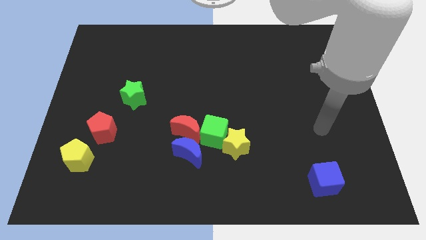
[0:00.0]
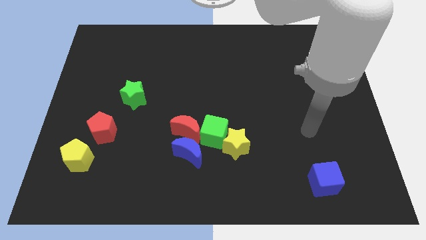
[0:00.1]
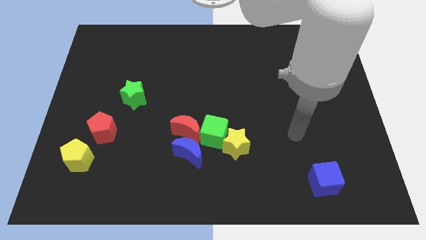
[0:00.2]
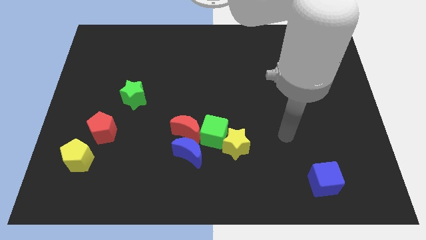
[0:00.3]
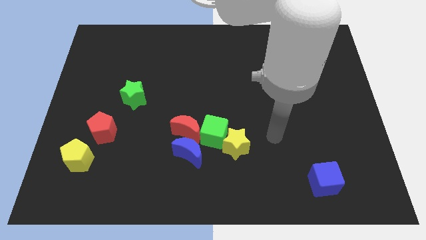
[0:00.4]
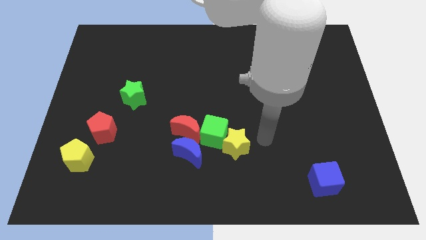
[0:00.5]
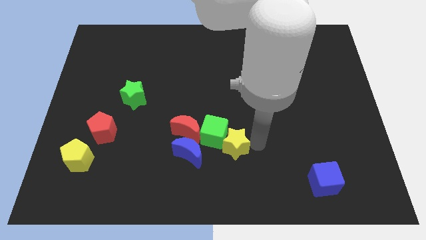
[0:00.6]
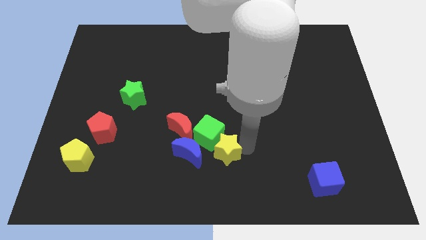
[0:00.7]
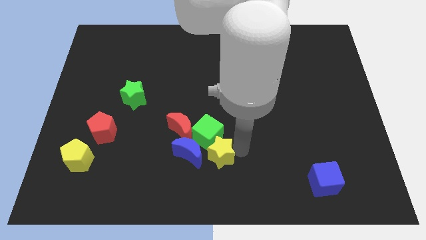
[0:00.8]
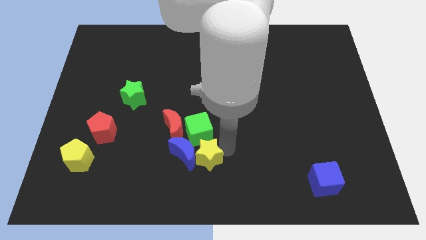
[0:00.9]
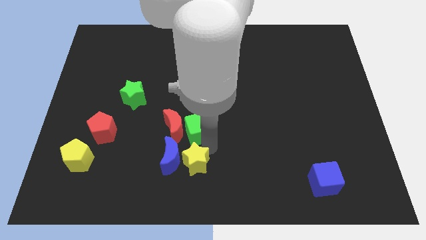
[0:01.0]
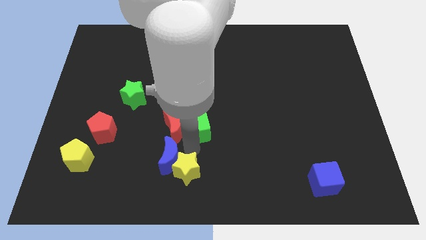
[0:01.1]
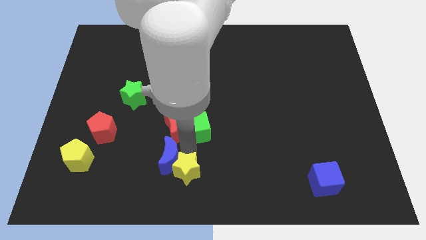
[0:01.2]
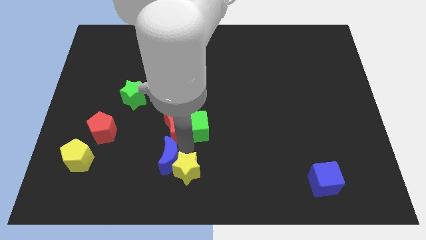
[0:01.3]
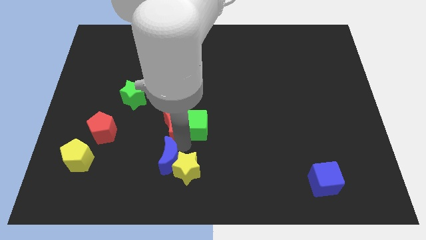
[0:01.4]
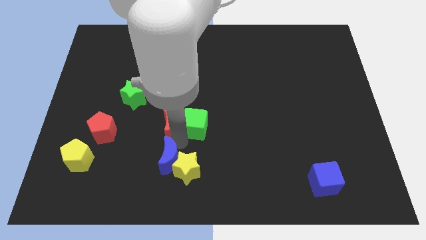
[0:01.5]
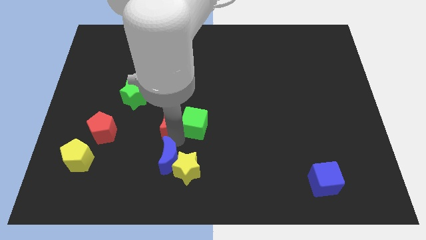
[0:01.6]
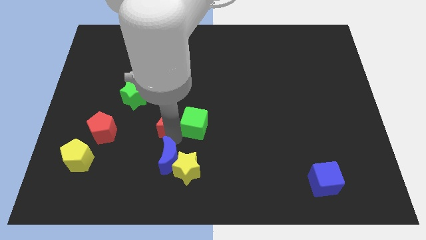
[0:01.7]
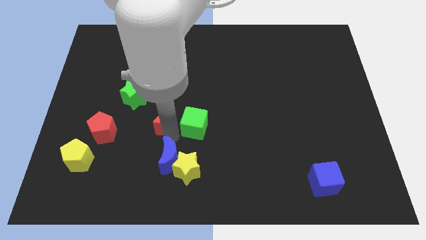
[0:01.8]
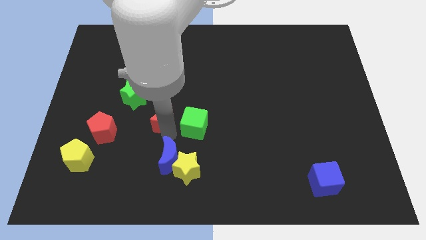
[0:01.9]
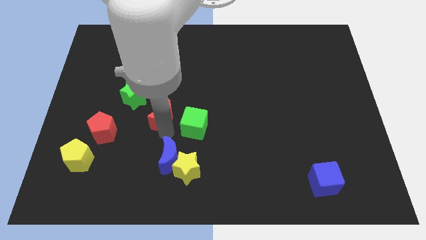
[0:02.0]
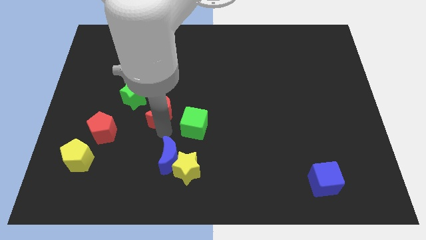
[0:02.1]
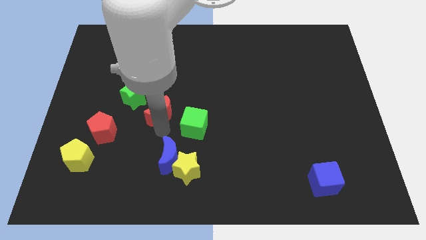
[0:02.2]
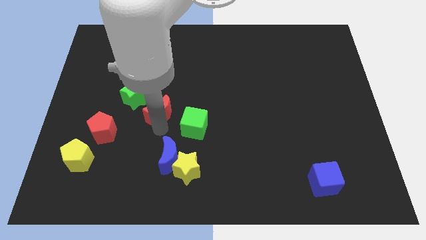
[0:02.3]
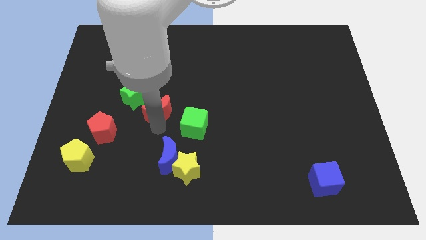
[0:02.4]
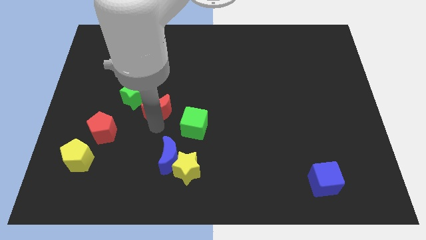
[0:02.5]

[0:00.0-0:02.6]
move the red moon away from the blue moon and green cube

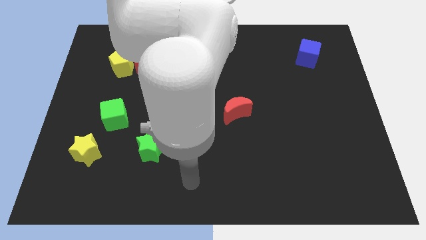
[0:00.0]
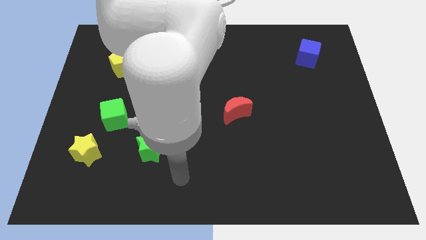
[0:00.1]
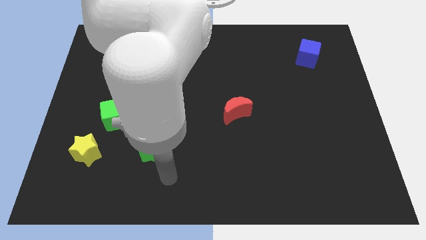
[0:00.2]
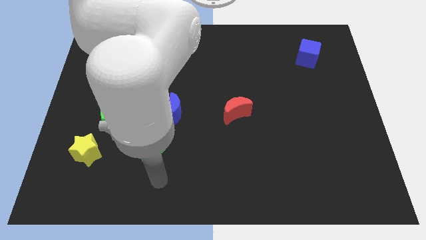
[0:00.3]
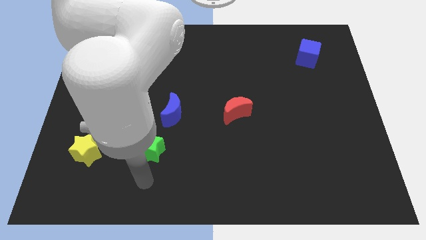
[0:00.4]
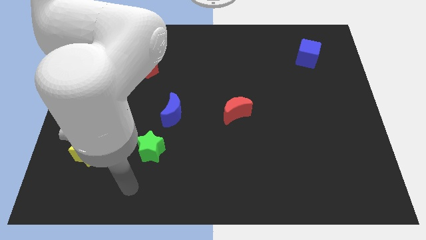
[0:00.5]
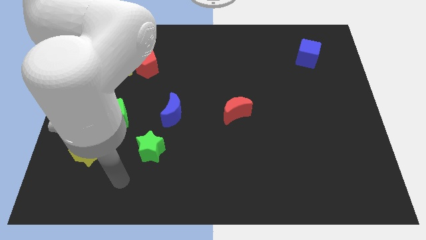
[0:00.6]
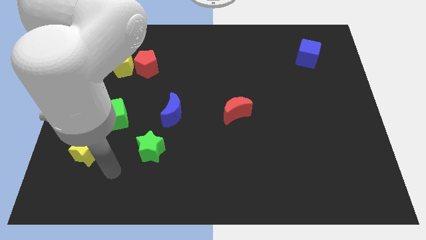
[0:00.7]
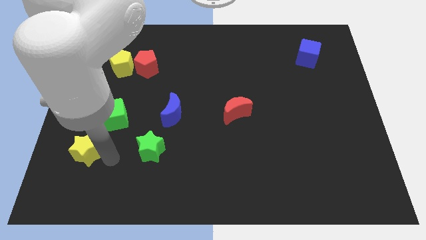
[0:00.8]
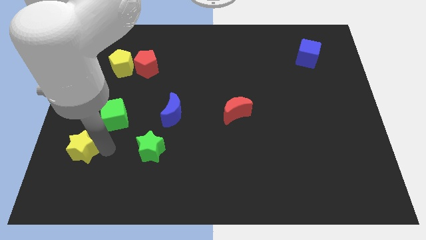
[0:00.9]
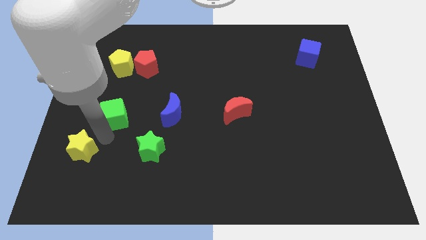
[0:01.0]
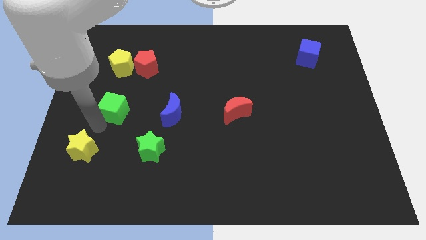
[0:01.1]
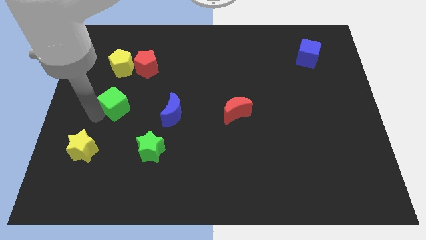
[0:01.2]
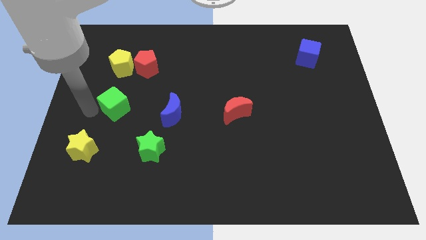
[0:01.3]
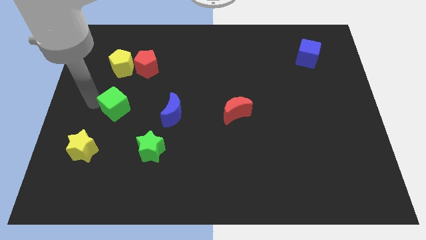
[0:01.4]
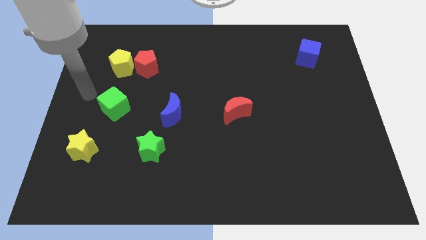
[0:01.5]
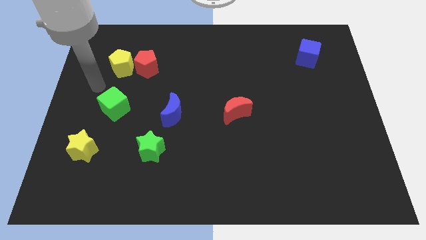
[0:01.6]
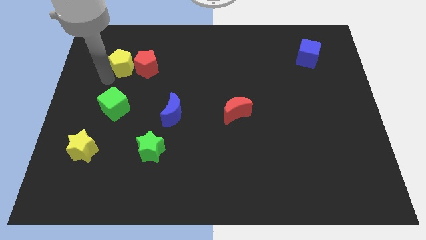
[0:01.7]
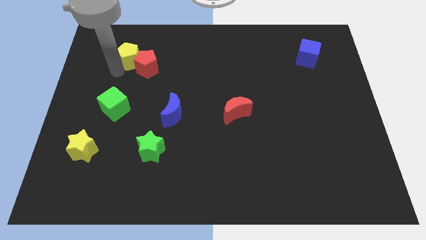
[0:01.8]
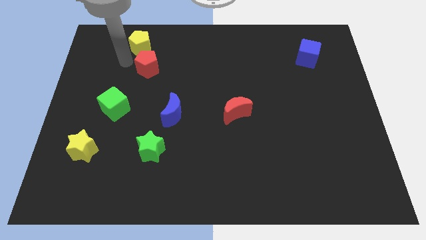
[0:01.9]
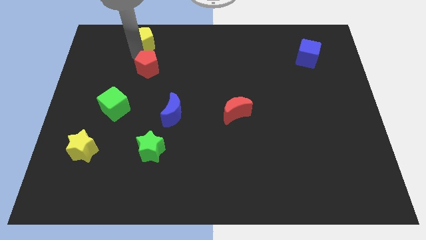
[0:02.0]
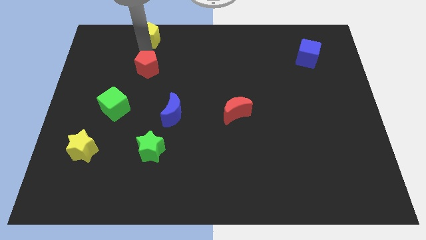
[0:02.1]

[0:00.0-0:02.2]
separate the red pentagon from the yellow pentagon

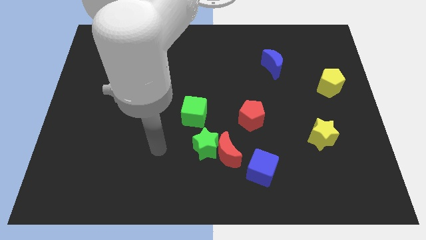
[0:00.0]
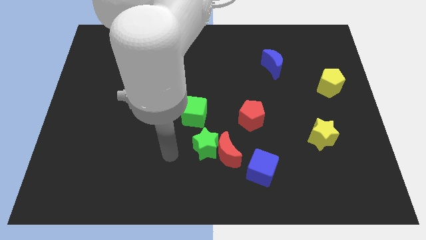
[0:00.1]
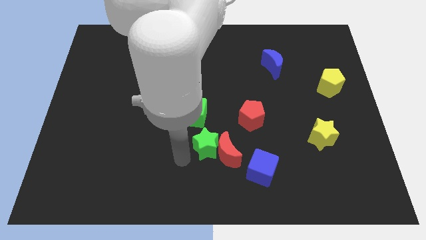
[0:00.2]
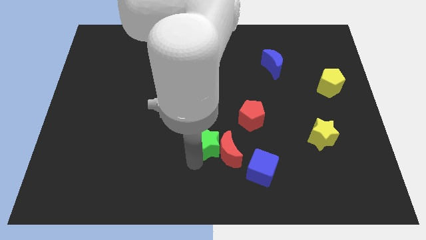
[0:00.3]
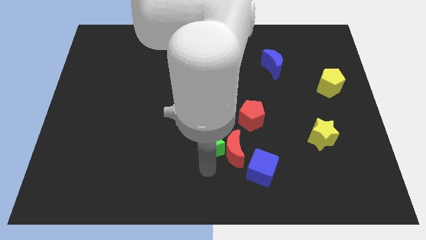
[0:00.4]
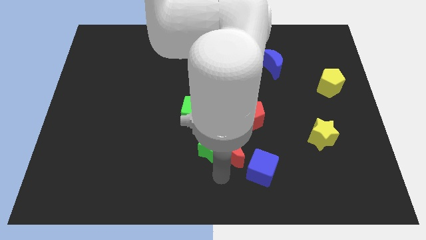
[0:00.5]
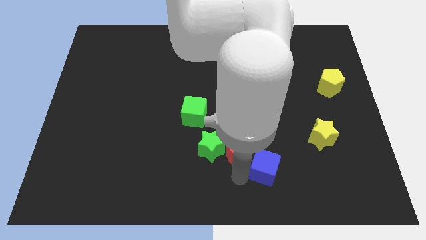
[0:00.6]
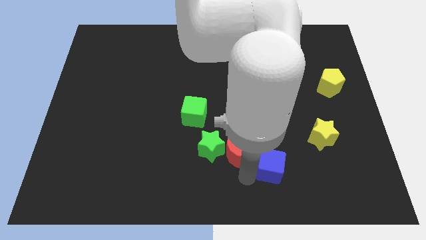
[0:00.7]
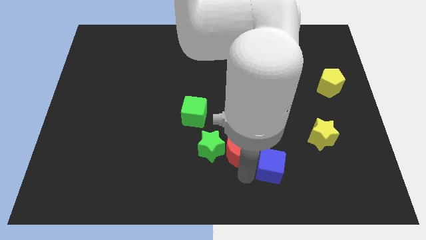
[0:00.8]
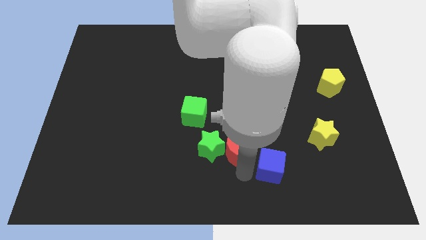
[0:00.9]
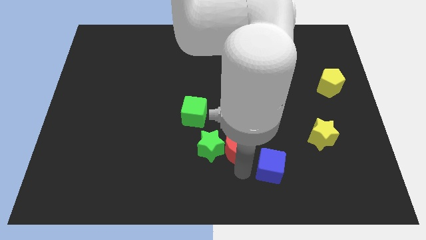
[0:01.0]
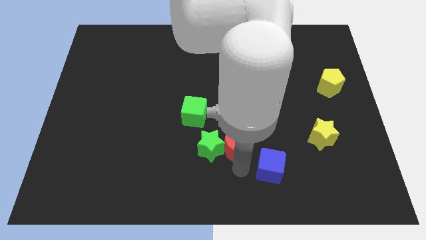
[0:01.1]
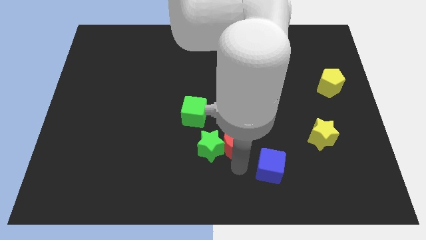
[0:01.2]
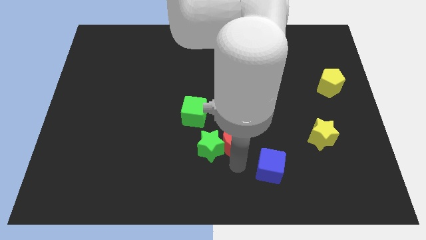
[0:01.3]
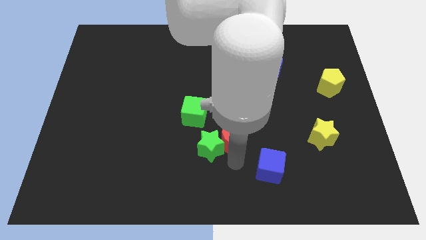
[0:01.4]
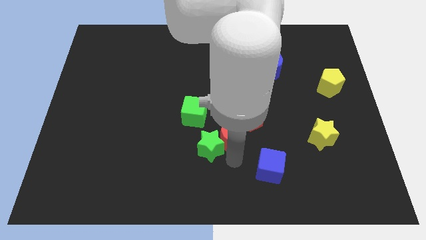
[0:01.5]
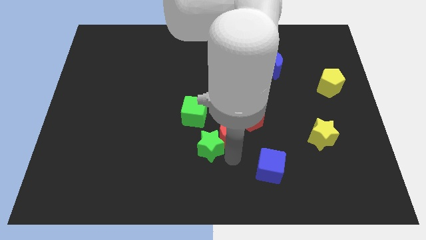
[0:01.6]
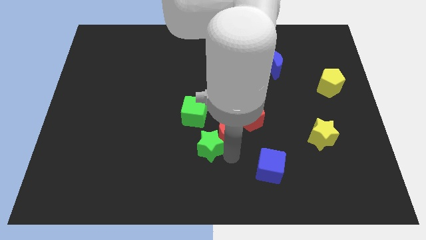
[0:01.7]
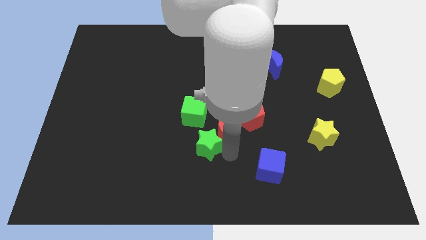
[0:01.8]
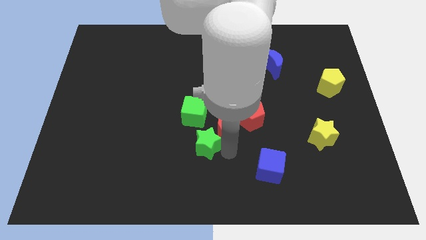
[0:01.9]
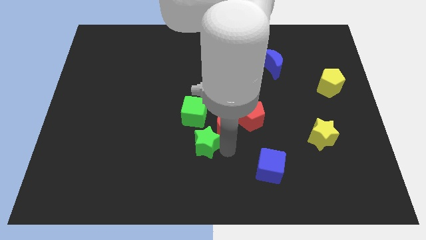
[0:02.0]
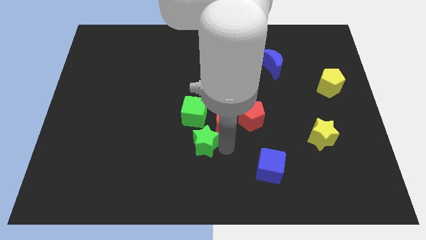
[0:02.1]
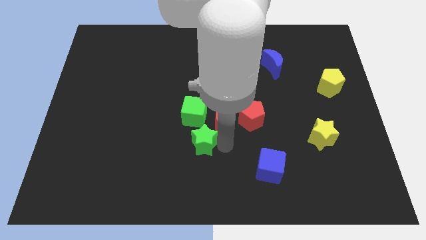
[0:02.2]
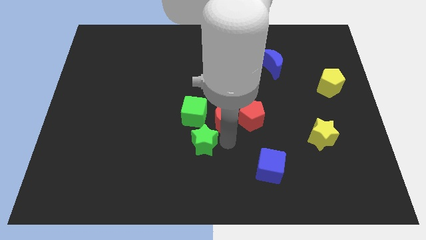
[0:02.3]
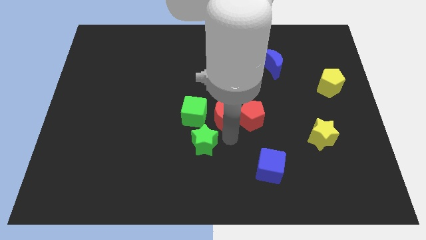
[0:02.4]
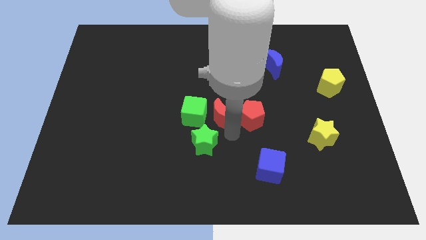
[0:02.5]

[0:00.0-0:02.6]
separate the red moon from the green star and blue cube

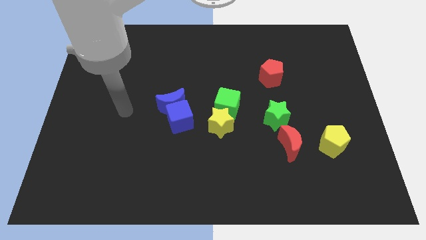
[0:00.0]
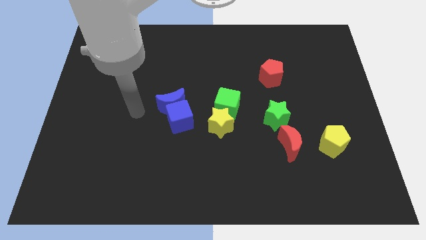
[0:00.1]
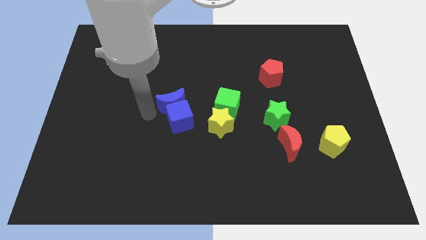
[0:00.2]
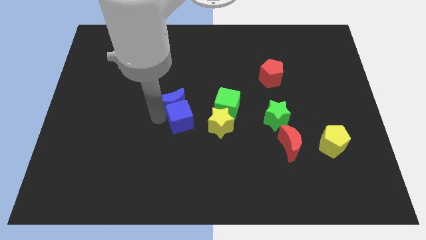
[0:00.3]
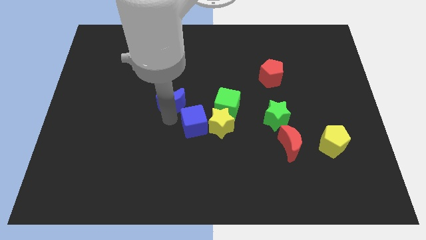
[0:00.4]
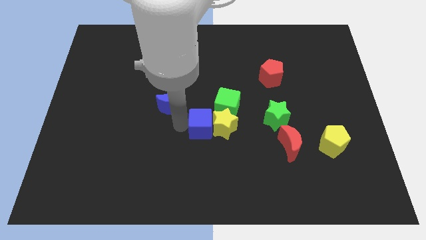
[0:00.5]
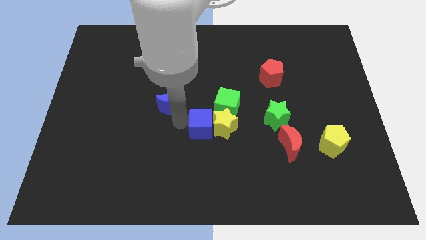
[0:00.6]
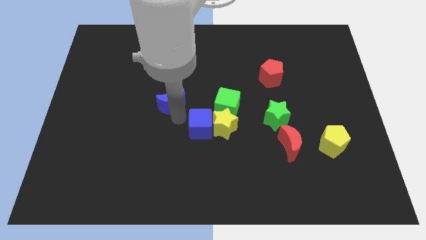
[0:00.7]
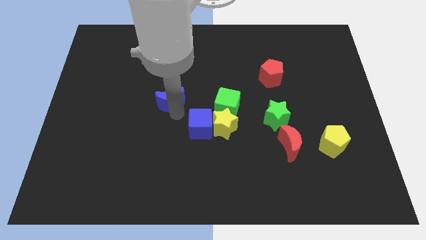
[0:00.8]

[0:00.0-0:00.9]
separate the blue moon from the blue cube

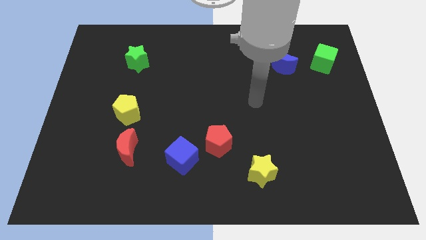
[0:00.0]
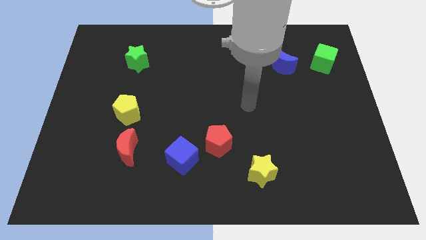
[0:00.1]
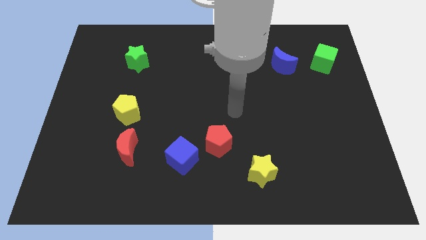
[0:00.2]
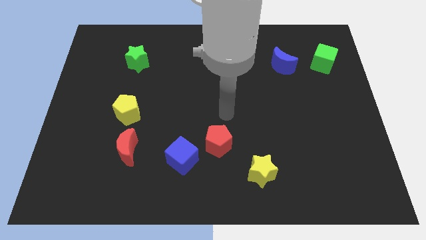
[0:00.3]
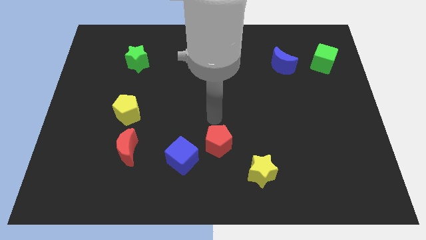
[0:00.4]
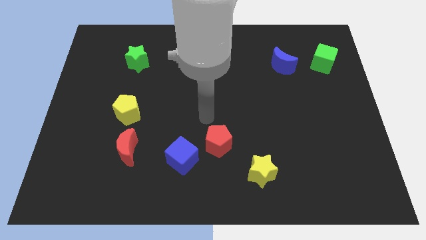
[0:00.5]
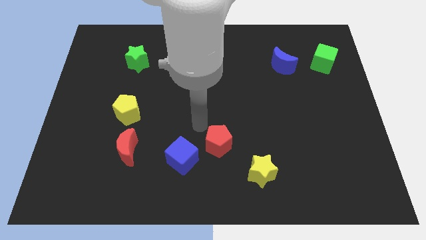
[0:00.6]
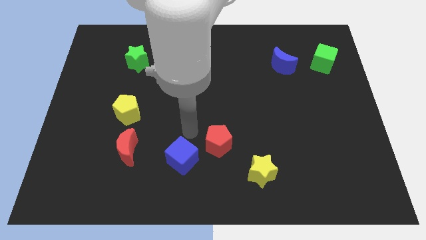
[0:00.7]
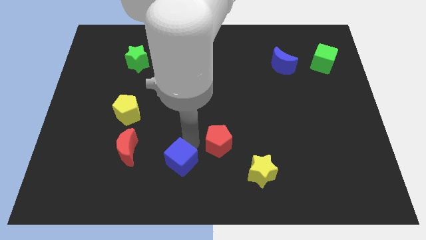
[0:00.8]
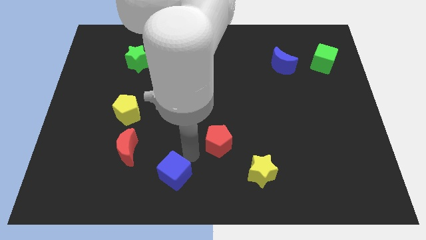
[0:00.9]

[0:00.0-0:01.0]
pull the red pentagon apart from the blue cube
